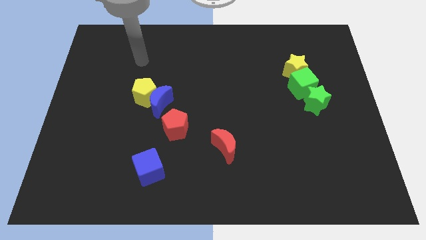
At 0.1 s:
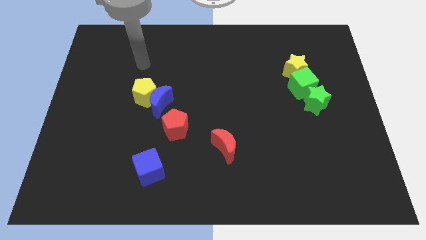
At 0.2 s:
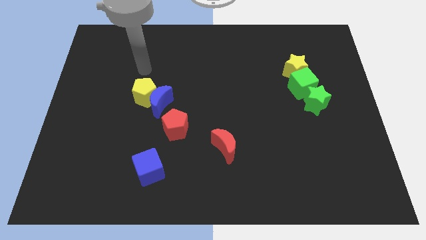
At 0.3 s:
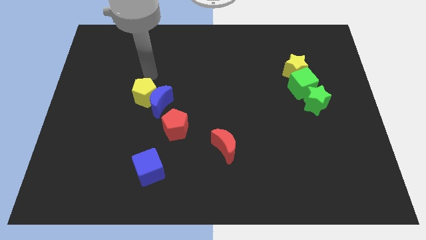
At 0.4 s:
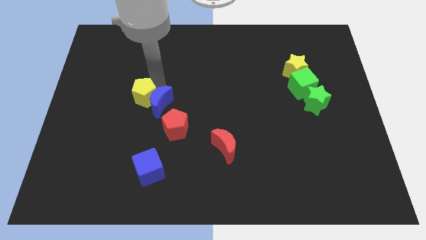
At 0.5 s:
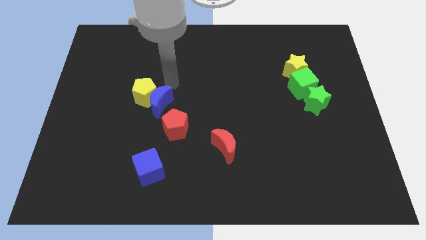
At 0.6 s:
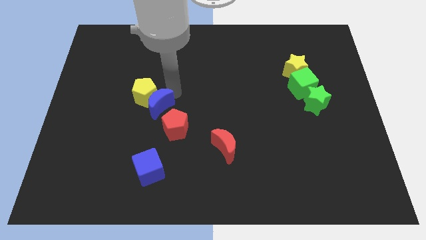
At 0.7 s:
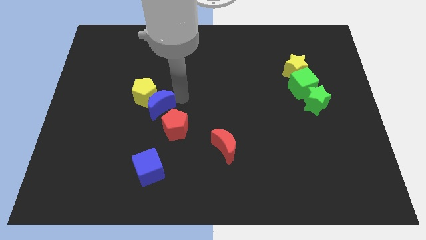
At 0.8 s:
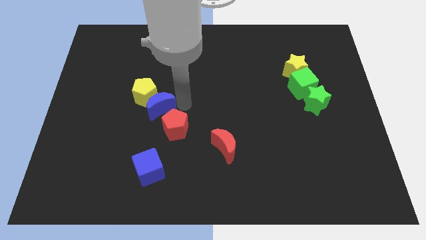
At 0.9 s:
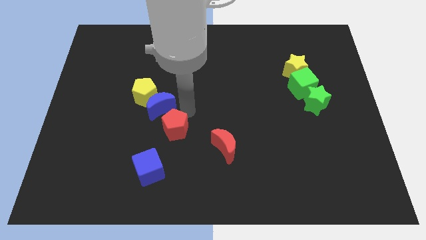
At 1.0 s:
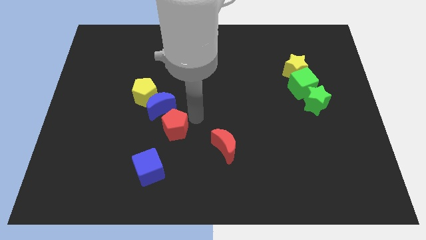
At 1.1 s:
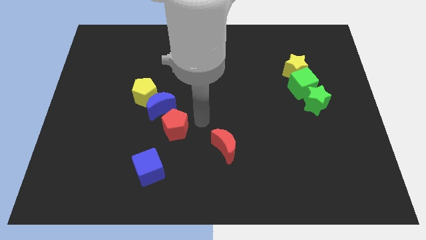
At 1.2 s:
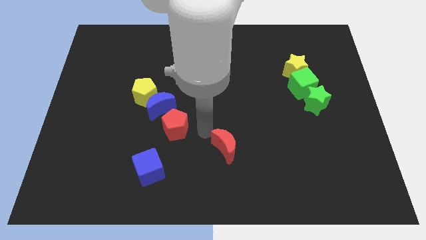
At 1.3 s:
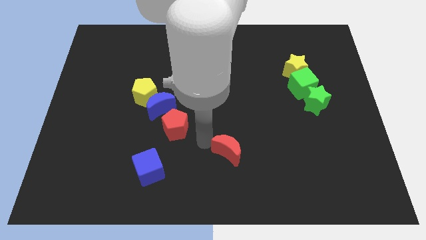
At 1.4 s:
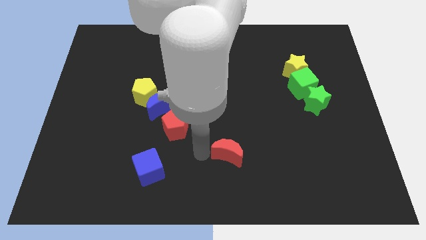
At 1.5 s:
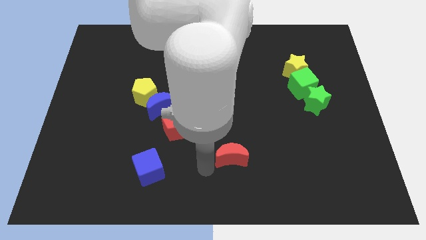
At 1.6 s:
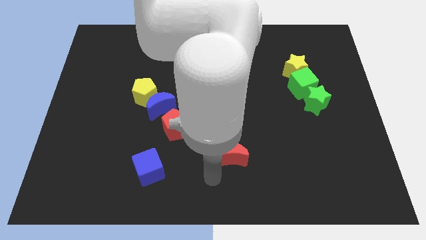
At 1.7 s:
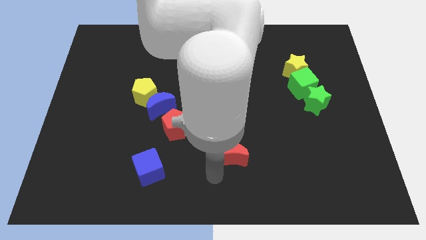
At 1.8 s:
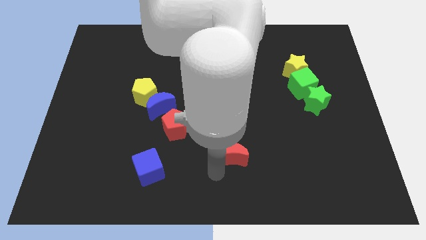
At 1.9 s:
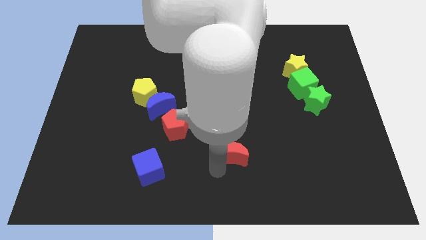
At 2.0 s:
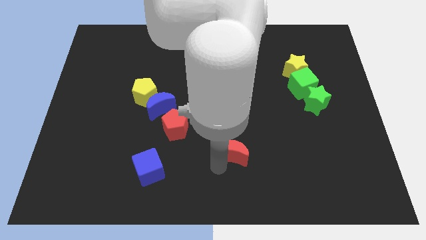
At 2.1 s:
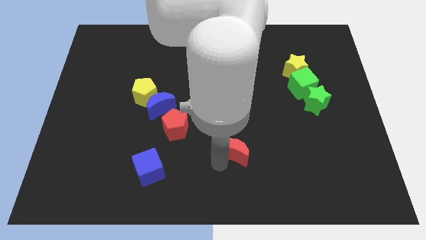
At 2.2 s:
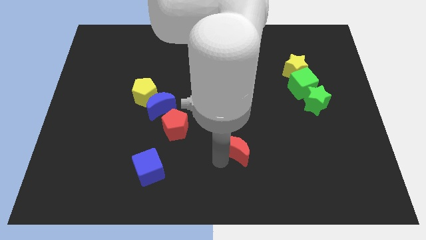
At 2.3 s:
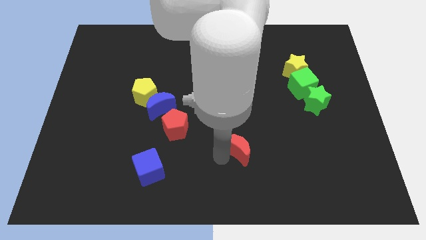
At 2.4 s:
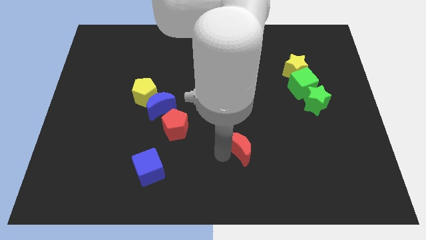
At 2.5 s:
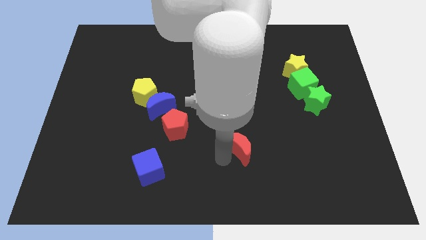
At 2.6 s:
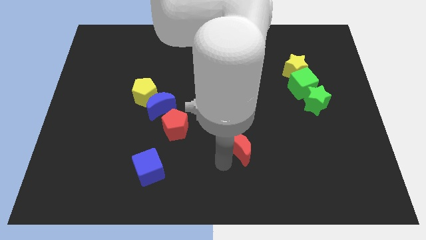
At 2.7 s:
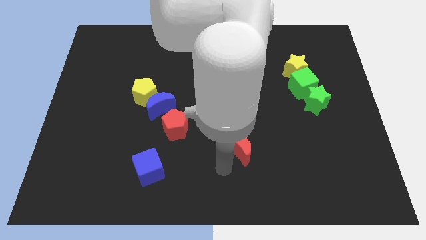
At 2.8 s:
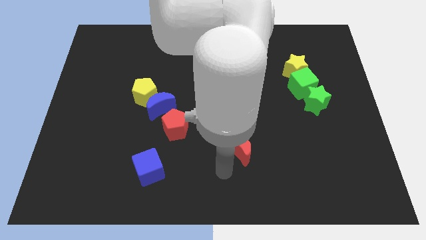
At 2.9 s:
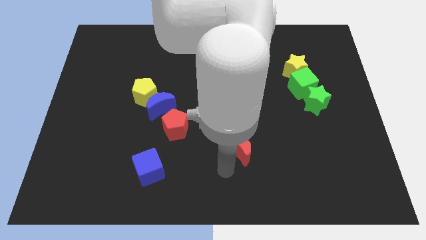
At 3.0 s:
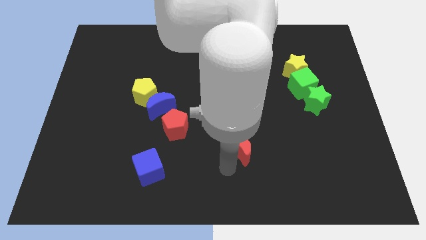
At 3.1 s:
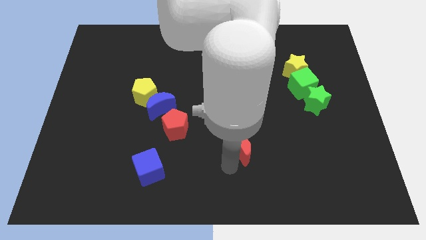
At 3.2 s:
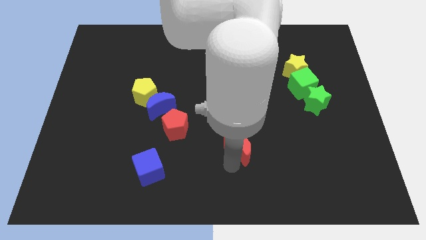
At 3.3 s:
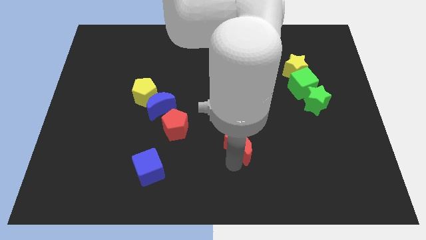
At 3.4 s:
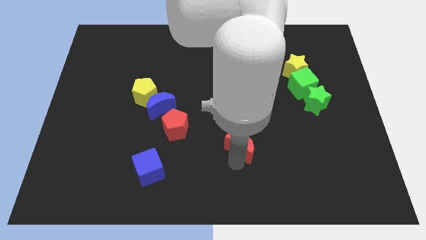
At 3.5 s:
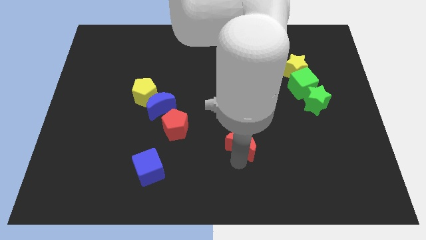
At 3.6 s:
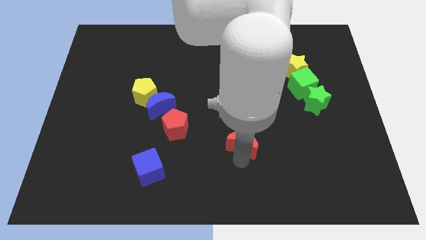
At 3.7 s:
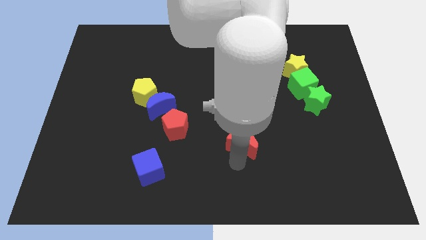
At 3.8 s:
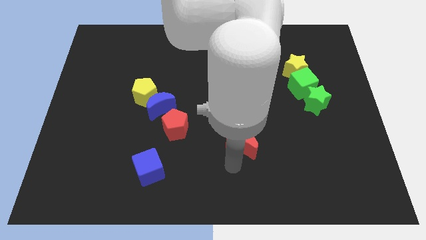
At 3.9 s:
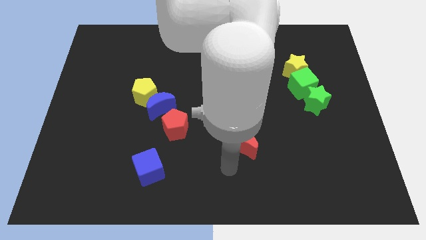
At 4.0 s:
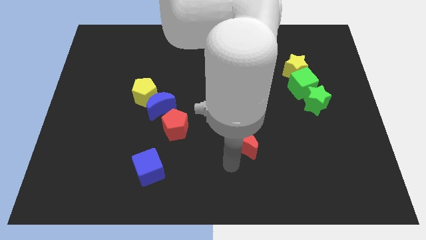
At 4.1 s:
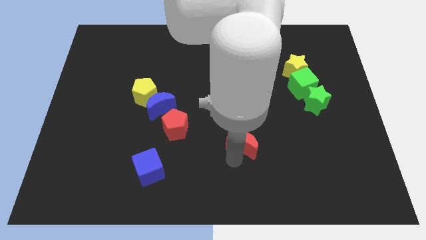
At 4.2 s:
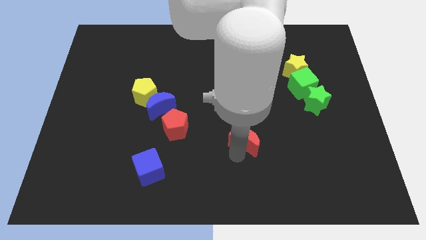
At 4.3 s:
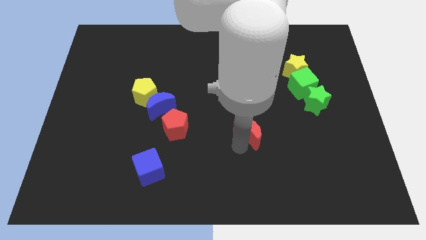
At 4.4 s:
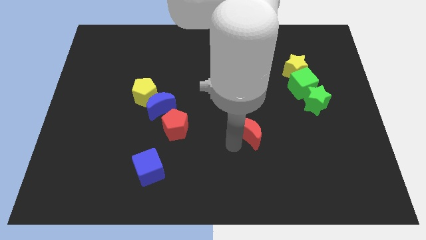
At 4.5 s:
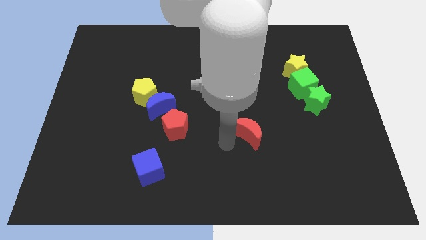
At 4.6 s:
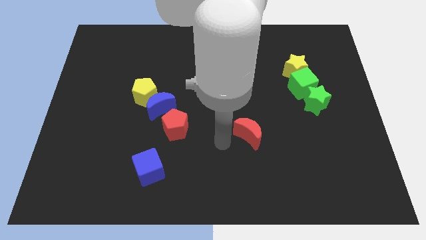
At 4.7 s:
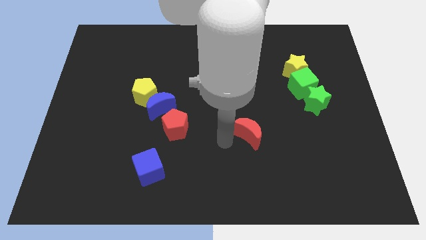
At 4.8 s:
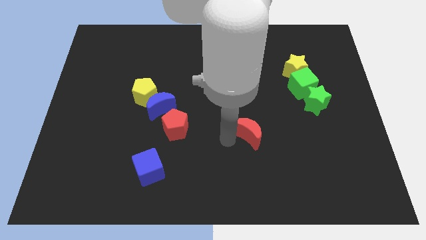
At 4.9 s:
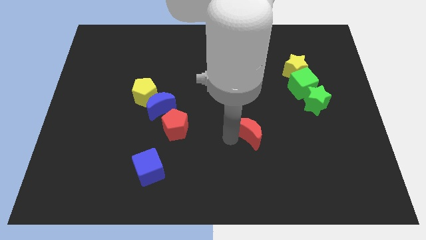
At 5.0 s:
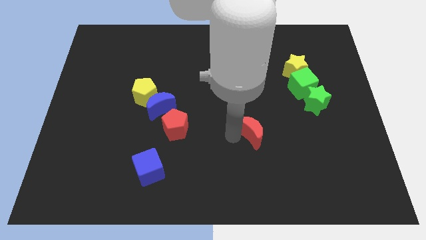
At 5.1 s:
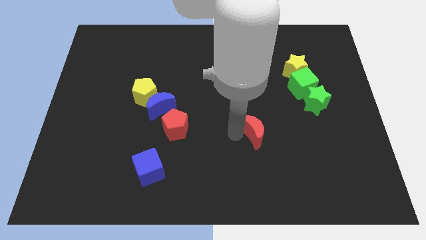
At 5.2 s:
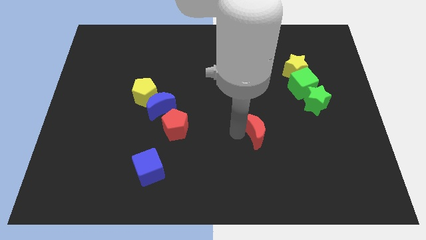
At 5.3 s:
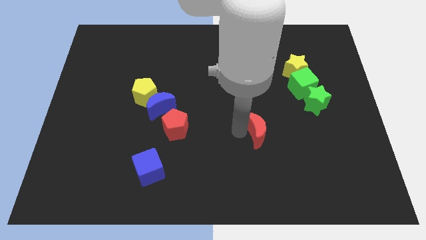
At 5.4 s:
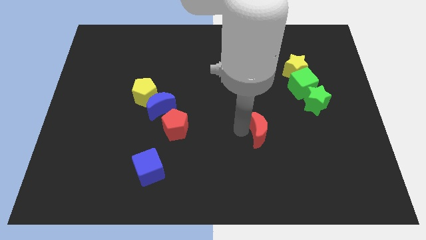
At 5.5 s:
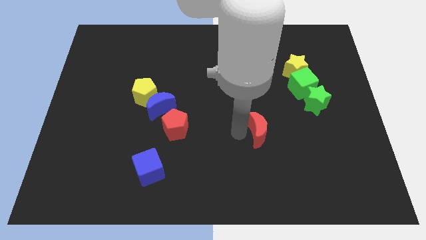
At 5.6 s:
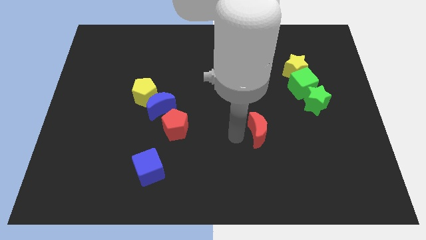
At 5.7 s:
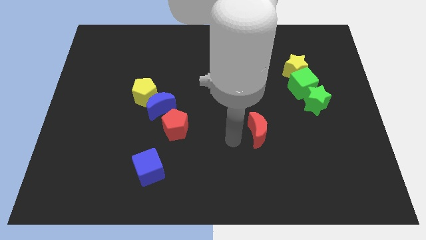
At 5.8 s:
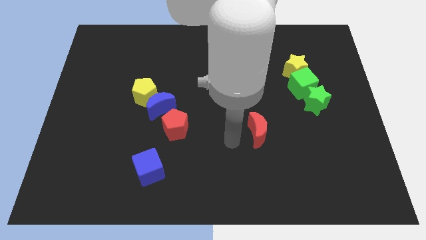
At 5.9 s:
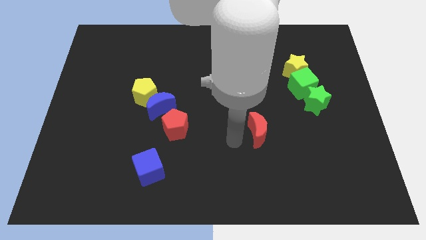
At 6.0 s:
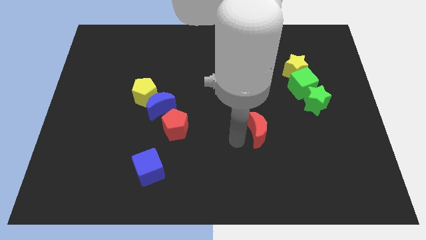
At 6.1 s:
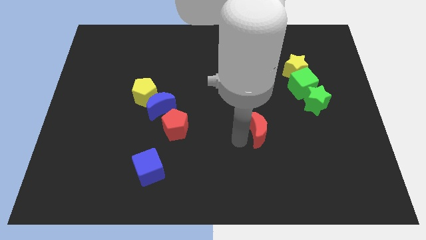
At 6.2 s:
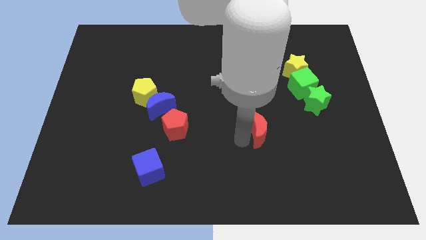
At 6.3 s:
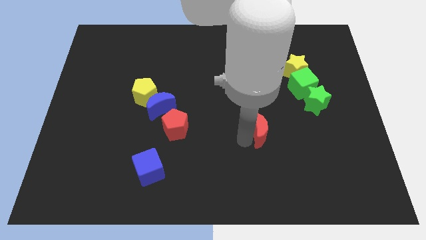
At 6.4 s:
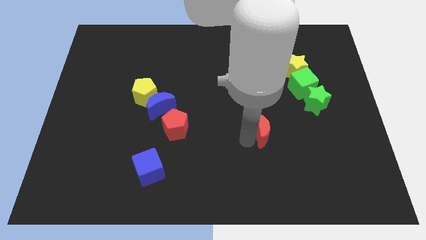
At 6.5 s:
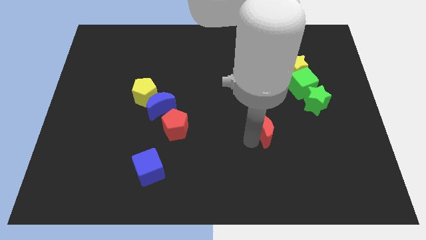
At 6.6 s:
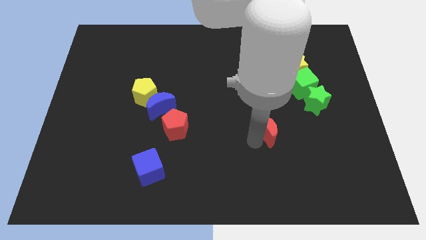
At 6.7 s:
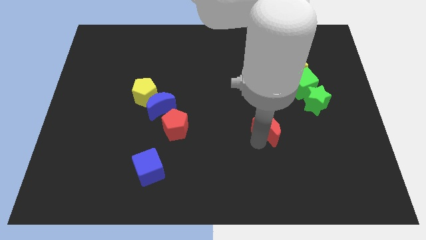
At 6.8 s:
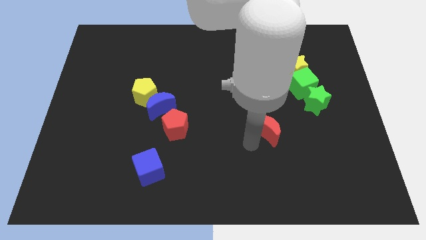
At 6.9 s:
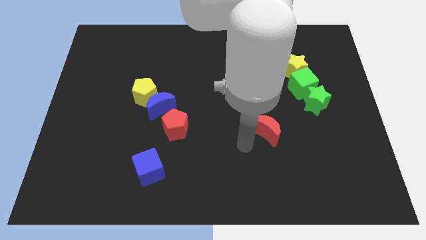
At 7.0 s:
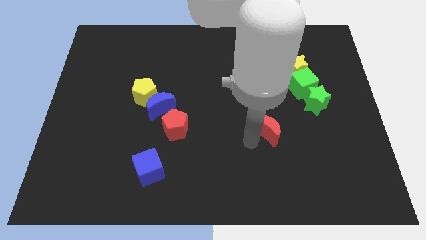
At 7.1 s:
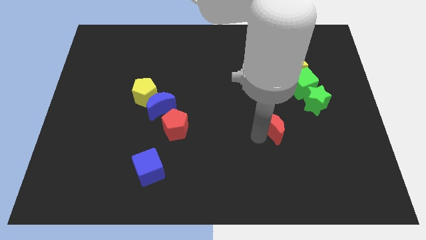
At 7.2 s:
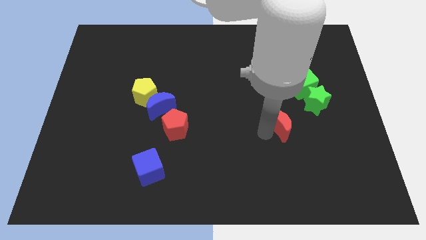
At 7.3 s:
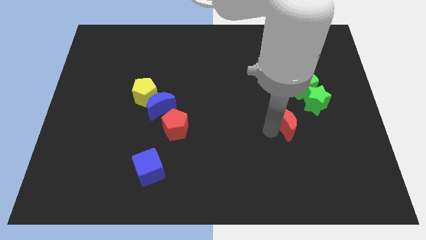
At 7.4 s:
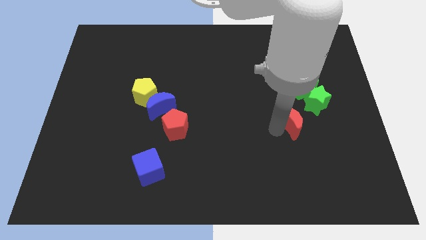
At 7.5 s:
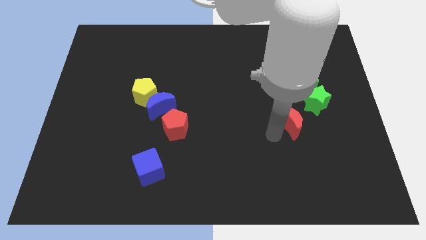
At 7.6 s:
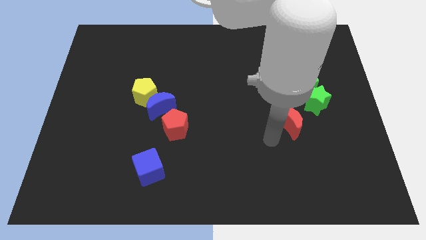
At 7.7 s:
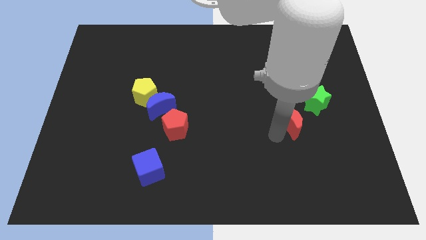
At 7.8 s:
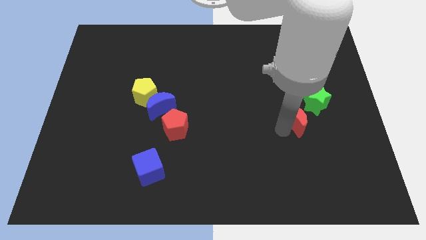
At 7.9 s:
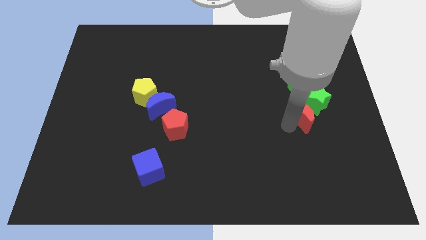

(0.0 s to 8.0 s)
slide the red moon close to the green star
